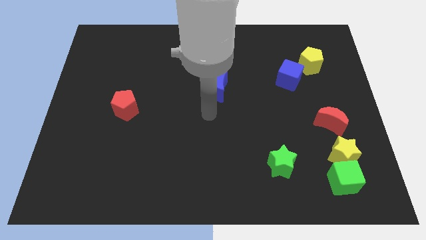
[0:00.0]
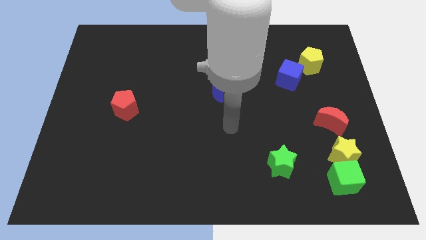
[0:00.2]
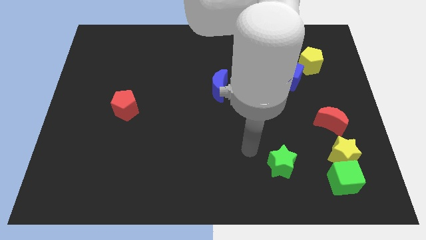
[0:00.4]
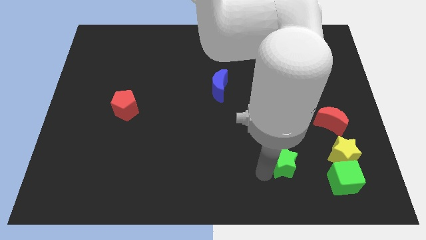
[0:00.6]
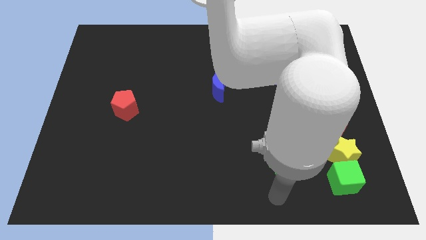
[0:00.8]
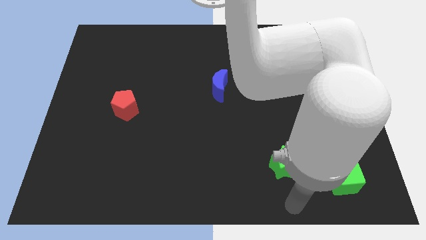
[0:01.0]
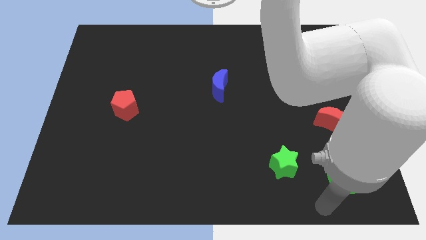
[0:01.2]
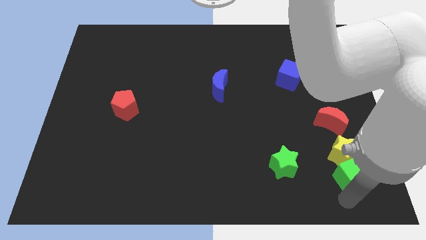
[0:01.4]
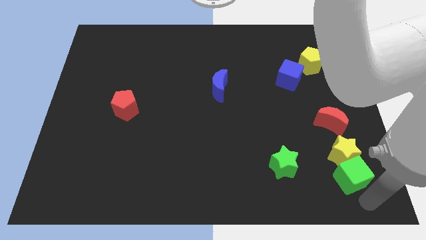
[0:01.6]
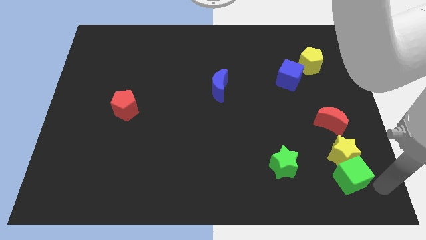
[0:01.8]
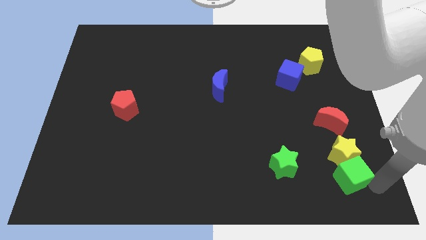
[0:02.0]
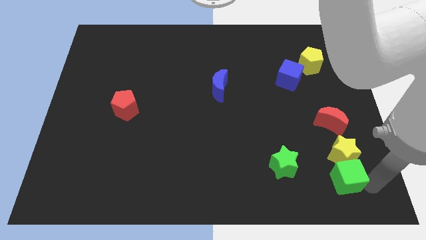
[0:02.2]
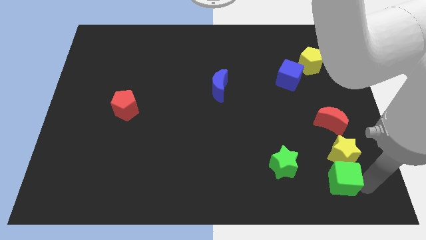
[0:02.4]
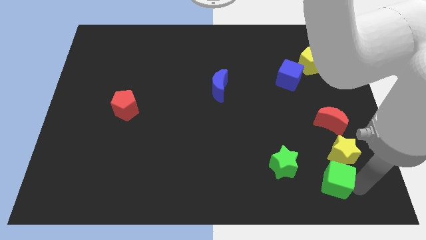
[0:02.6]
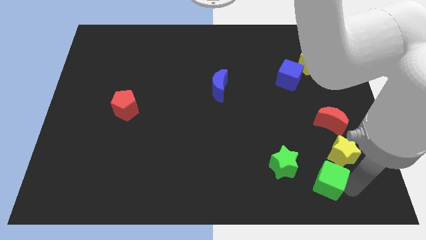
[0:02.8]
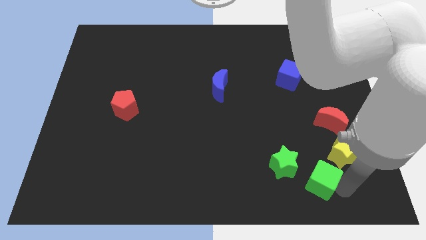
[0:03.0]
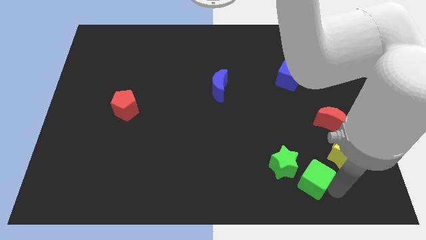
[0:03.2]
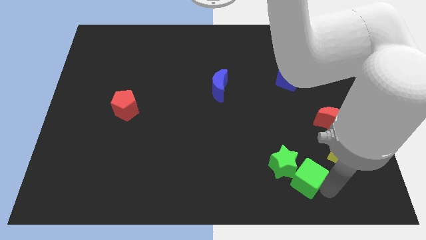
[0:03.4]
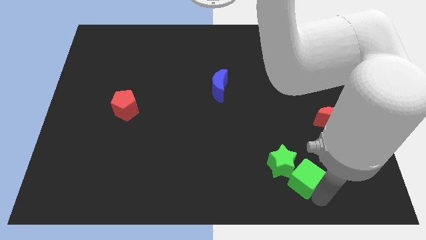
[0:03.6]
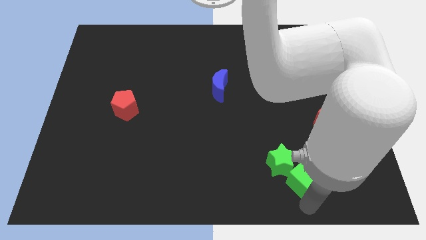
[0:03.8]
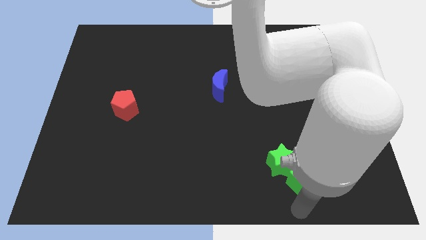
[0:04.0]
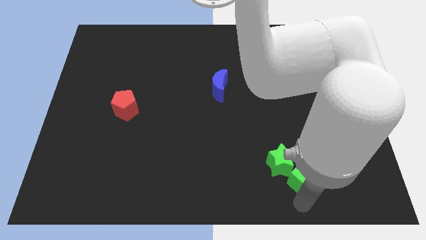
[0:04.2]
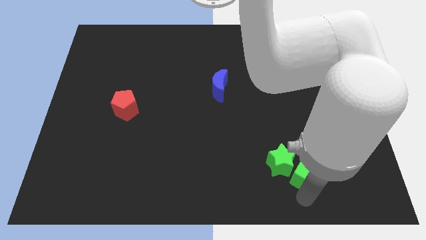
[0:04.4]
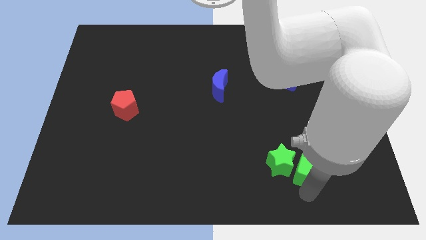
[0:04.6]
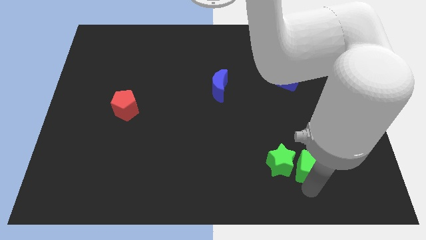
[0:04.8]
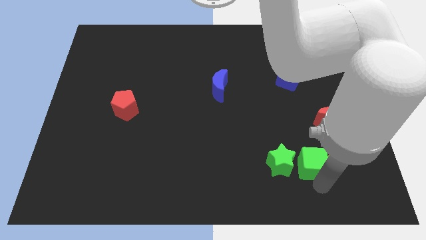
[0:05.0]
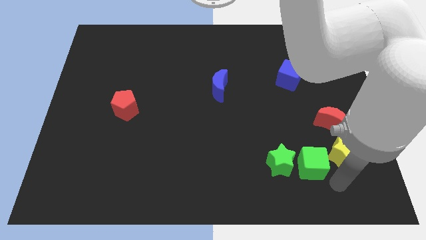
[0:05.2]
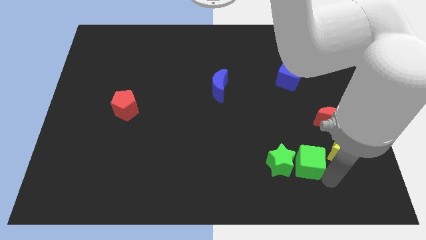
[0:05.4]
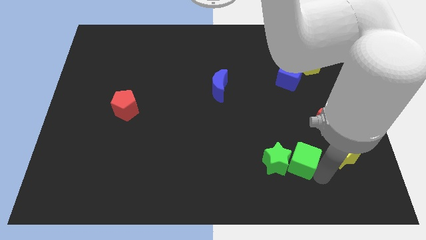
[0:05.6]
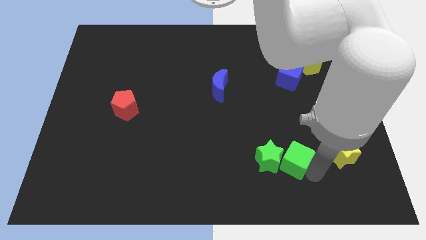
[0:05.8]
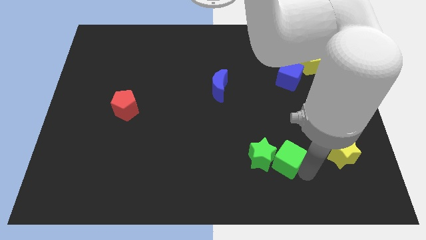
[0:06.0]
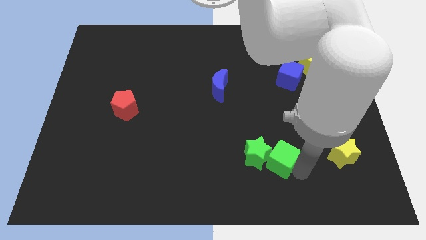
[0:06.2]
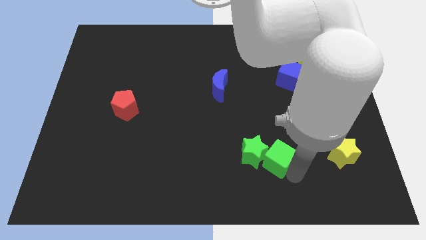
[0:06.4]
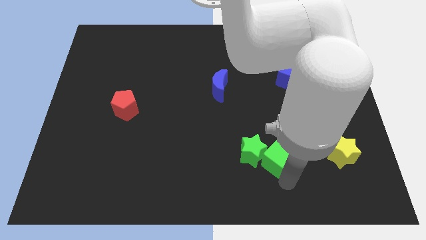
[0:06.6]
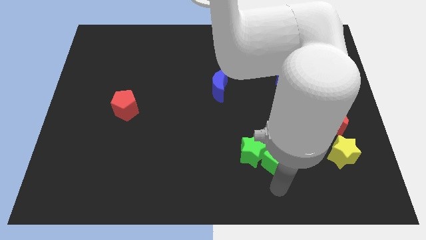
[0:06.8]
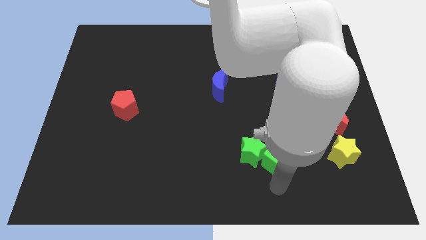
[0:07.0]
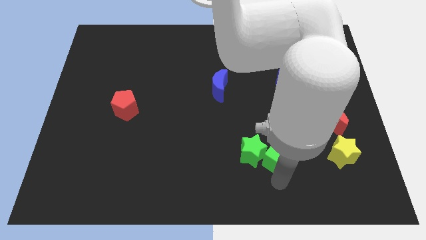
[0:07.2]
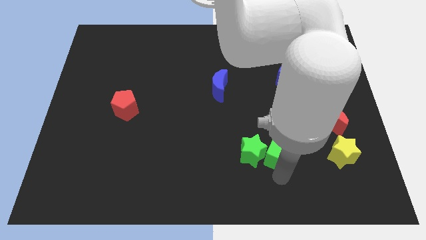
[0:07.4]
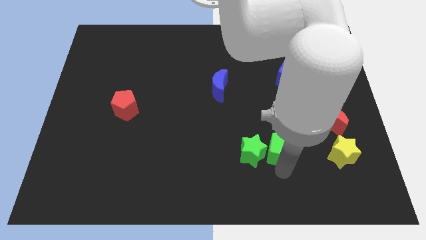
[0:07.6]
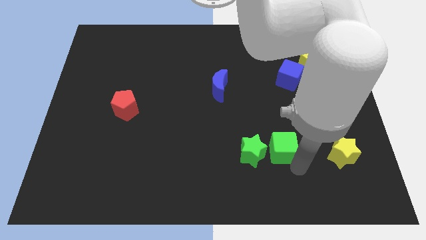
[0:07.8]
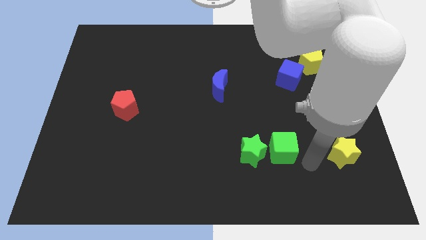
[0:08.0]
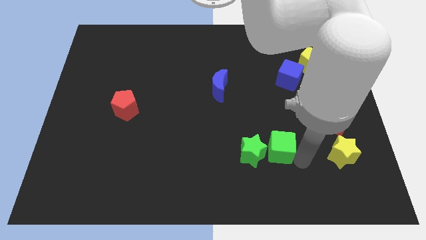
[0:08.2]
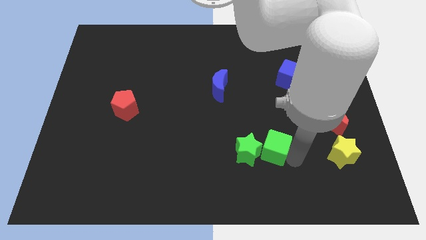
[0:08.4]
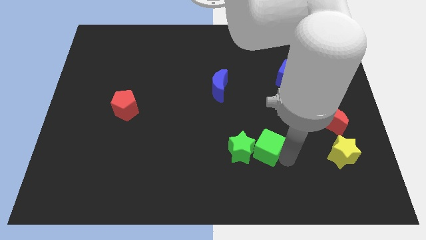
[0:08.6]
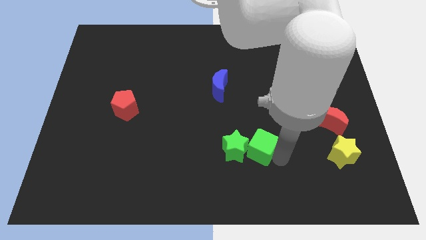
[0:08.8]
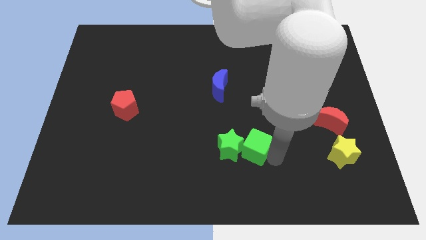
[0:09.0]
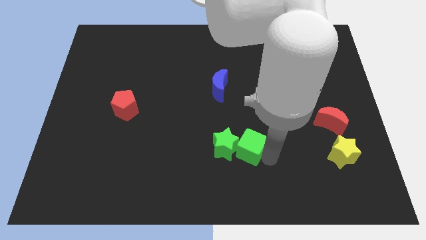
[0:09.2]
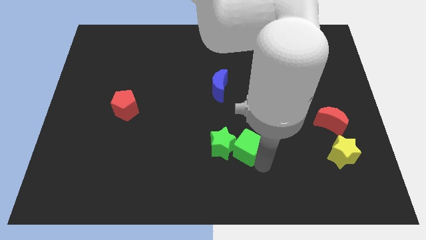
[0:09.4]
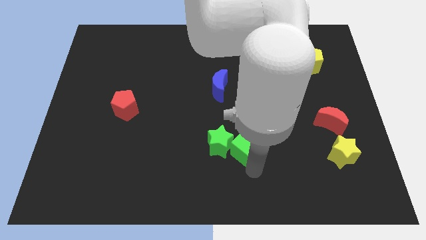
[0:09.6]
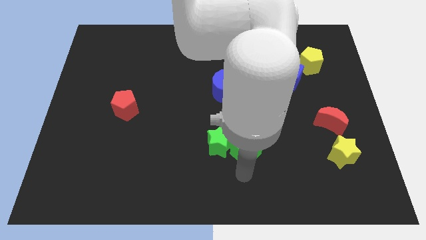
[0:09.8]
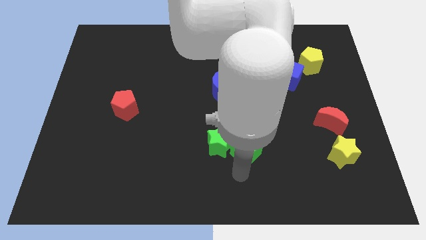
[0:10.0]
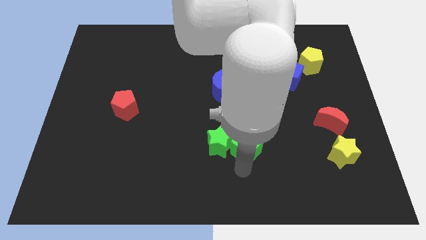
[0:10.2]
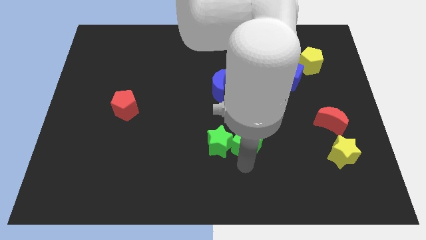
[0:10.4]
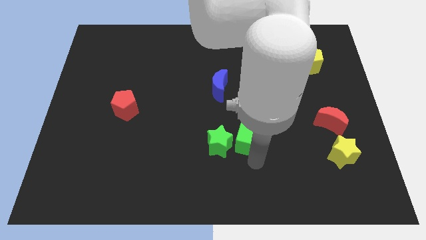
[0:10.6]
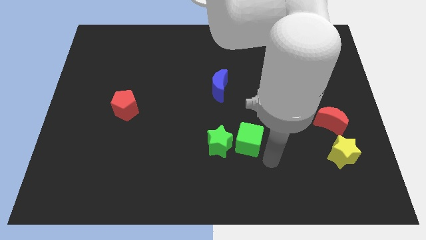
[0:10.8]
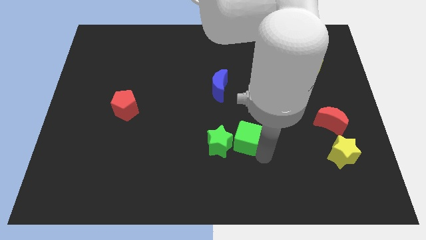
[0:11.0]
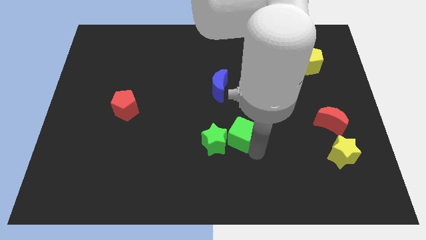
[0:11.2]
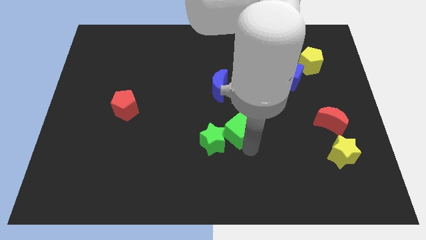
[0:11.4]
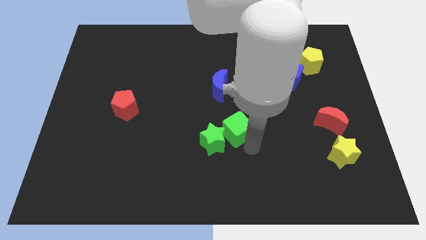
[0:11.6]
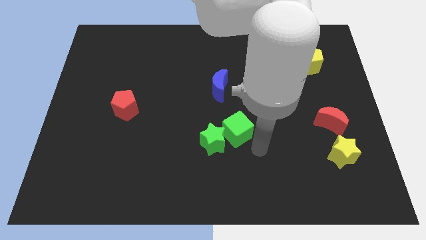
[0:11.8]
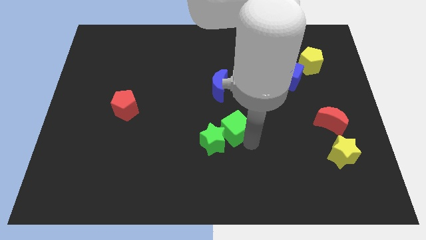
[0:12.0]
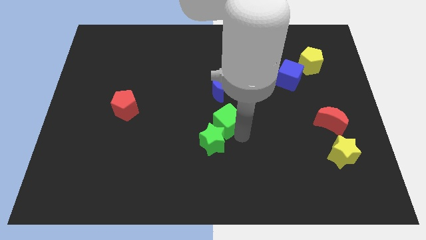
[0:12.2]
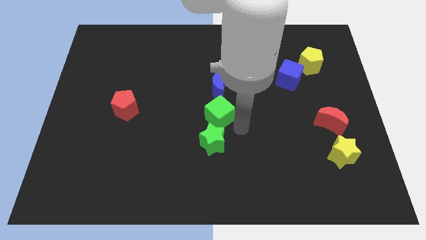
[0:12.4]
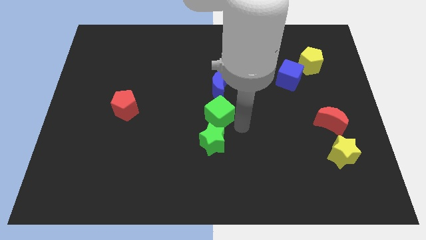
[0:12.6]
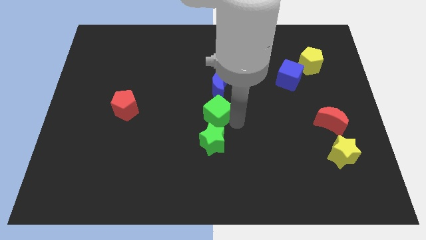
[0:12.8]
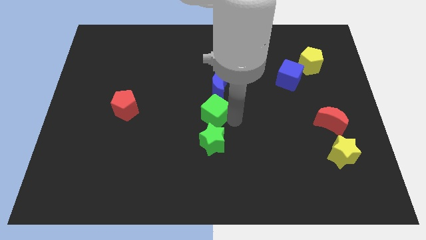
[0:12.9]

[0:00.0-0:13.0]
slide the green cube to the bottom left side of the blue moon
